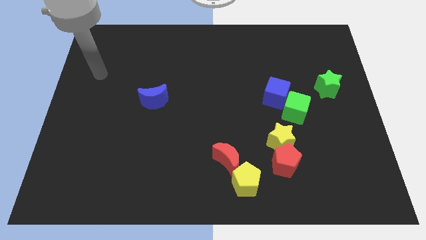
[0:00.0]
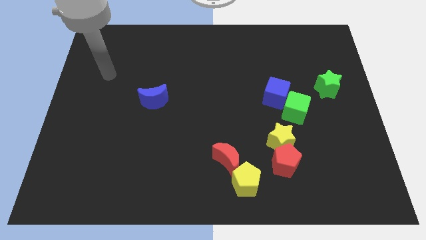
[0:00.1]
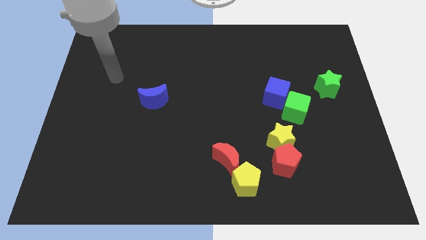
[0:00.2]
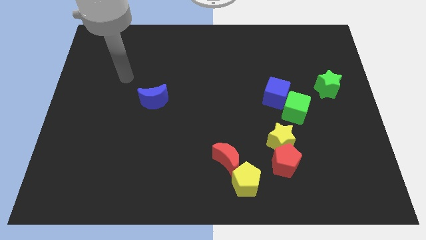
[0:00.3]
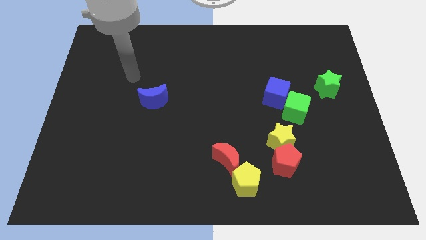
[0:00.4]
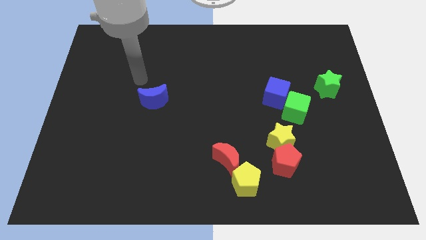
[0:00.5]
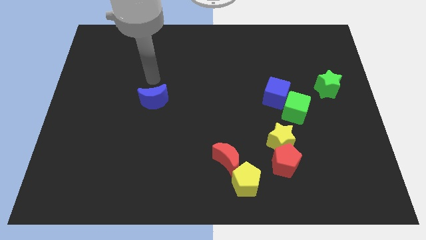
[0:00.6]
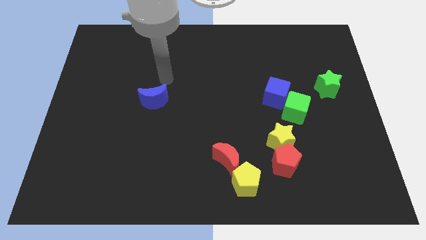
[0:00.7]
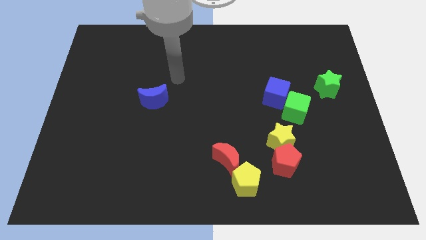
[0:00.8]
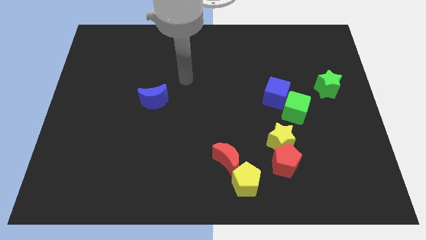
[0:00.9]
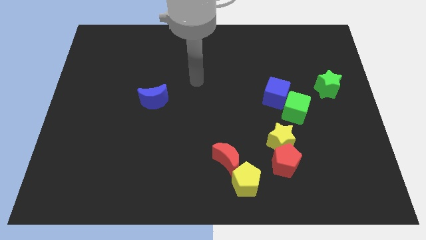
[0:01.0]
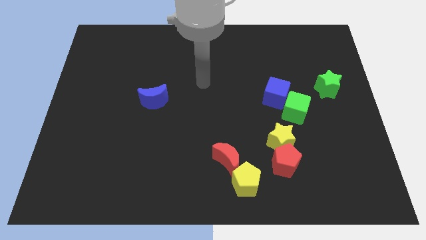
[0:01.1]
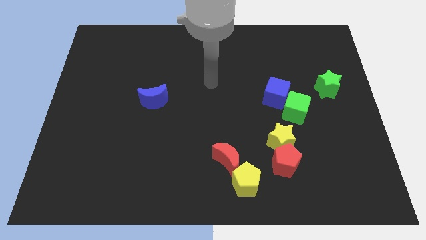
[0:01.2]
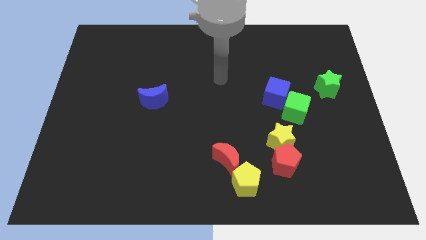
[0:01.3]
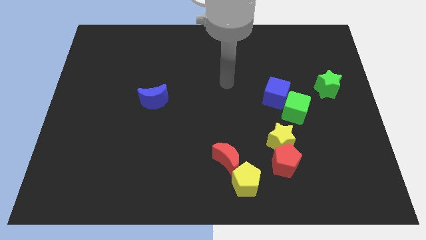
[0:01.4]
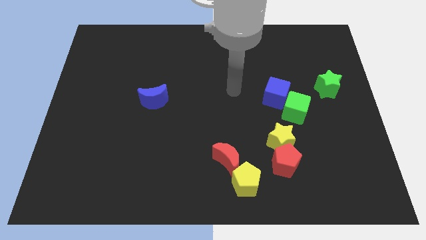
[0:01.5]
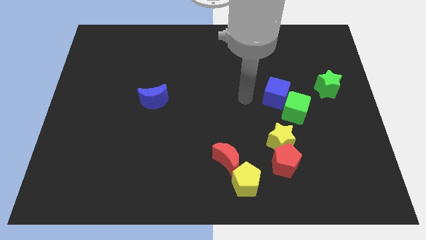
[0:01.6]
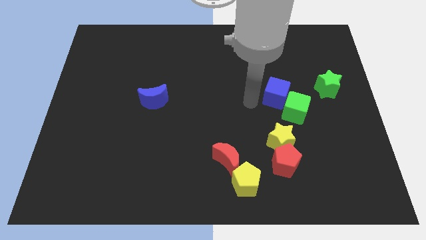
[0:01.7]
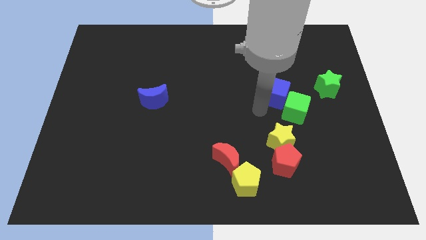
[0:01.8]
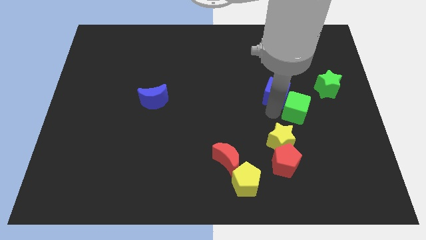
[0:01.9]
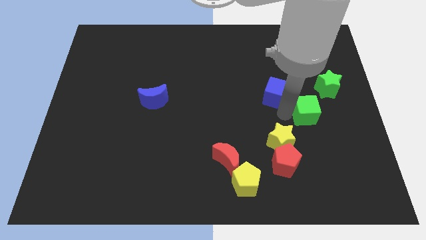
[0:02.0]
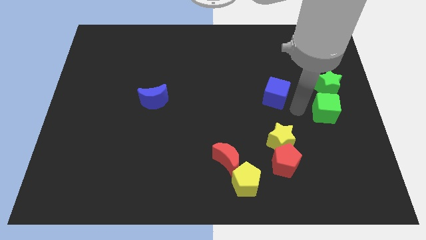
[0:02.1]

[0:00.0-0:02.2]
pull the blue cube apart from the green cube

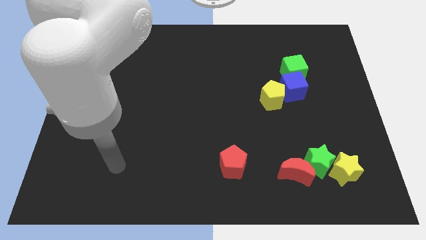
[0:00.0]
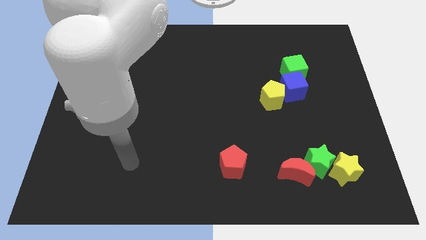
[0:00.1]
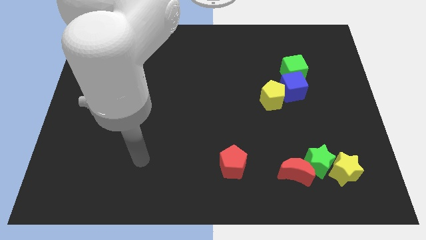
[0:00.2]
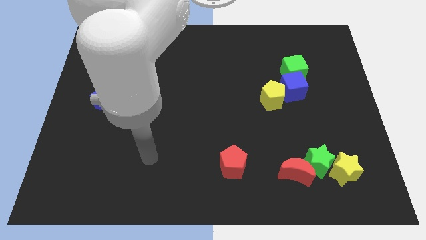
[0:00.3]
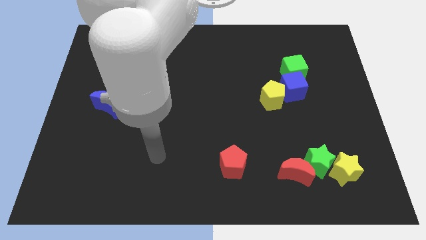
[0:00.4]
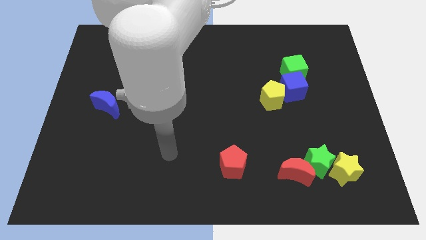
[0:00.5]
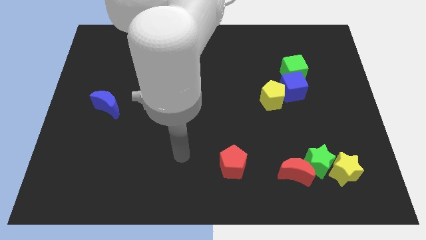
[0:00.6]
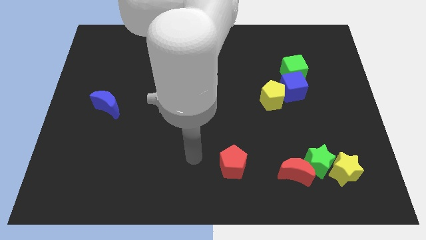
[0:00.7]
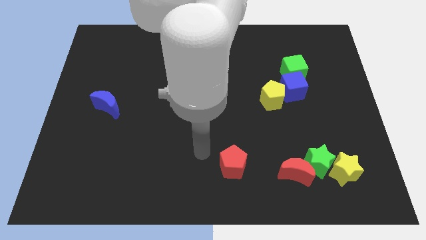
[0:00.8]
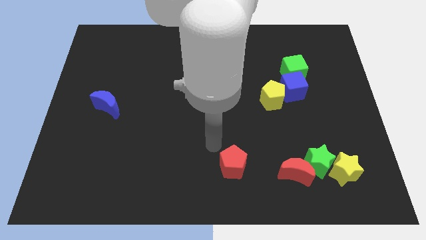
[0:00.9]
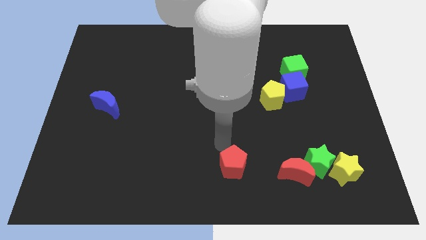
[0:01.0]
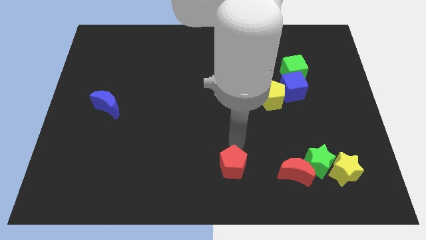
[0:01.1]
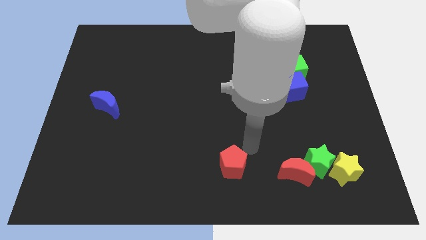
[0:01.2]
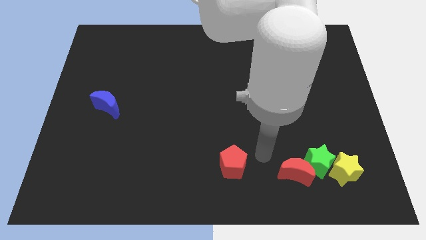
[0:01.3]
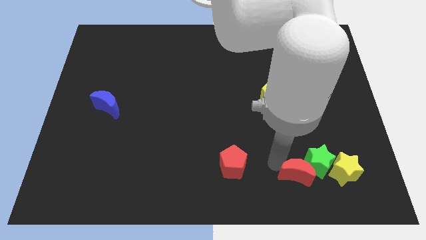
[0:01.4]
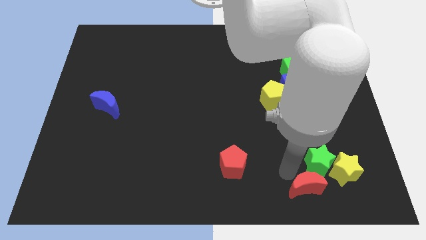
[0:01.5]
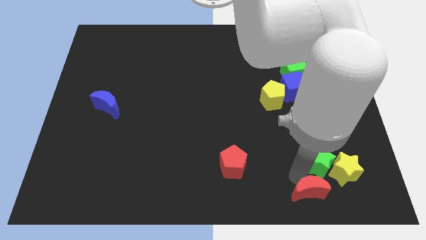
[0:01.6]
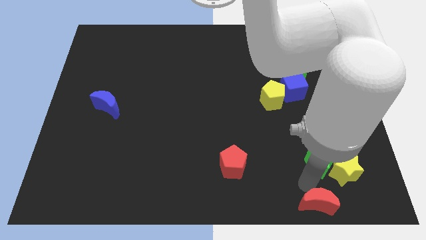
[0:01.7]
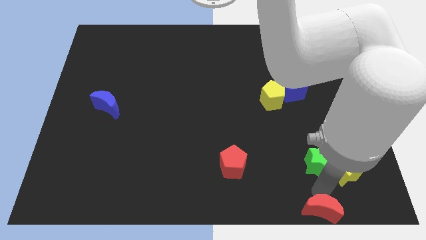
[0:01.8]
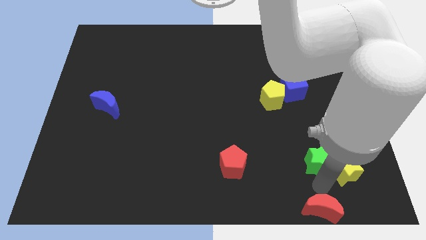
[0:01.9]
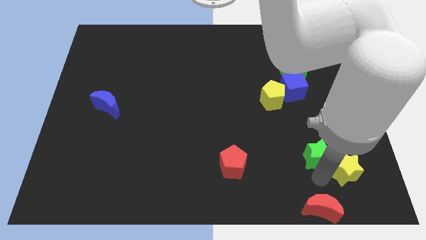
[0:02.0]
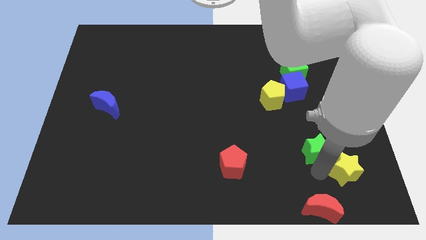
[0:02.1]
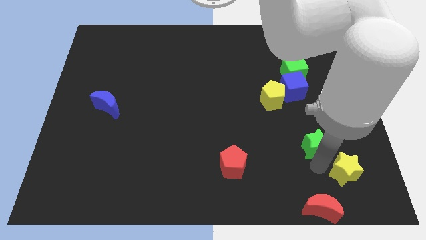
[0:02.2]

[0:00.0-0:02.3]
pull the green star apart from the yellow star and red moon

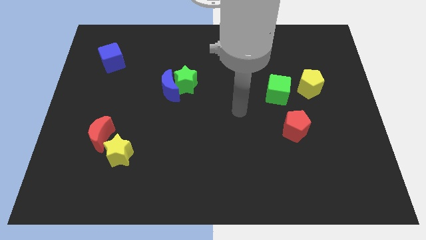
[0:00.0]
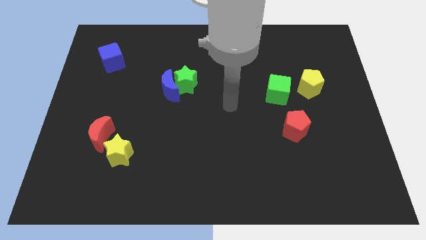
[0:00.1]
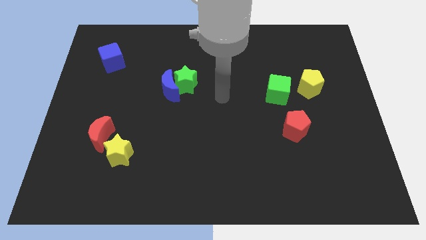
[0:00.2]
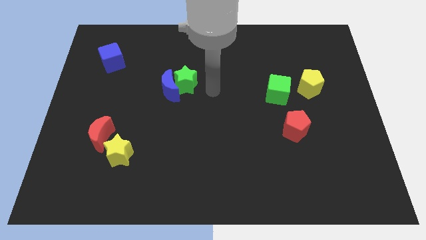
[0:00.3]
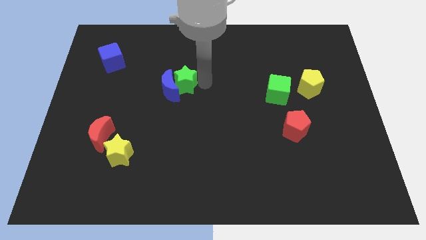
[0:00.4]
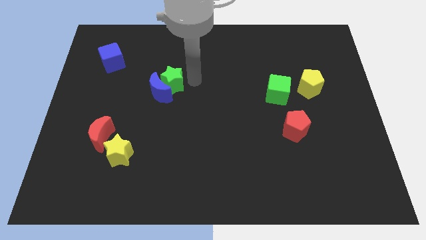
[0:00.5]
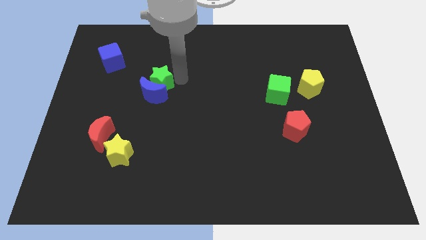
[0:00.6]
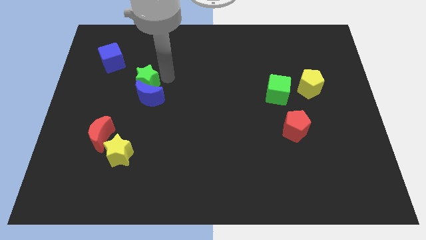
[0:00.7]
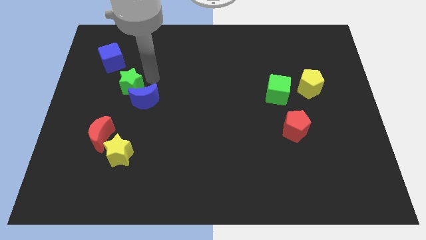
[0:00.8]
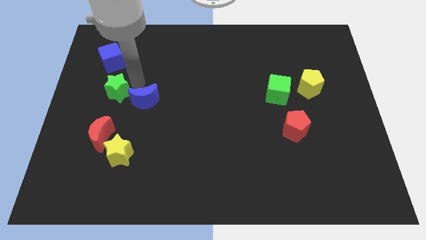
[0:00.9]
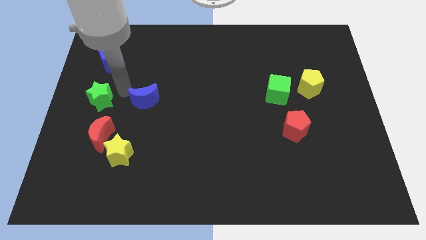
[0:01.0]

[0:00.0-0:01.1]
pull the blue moon apart from the green star

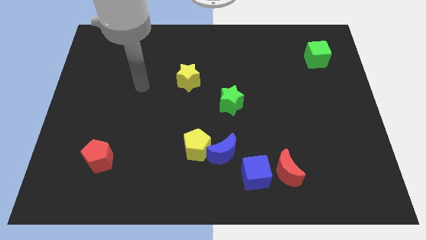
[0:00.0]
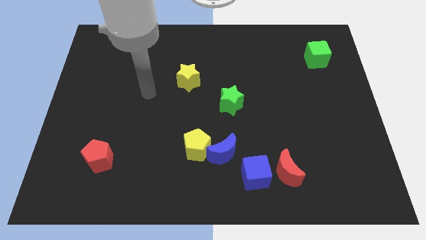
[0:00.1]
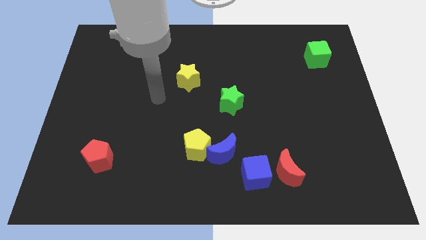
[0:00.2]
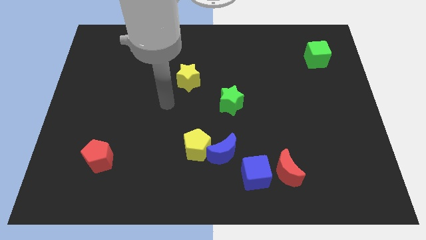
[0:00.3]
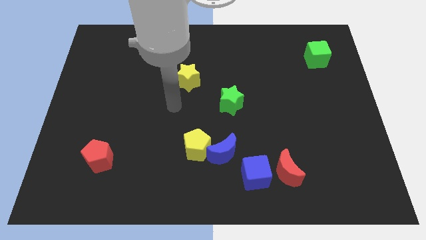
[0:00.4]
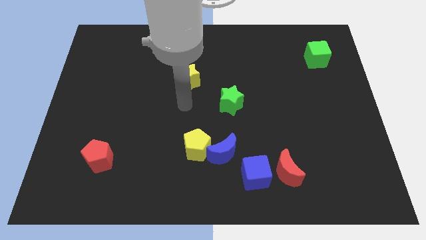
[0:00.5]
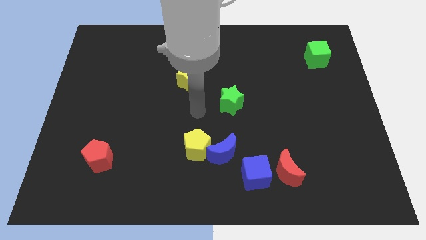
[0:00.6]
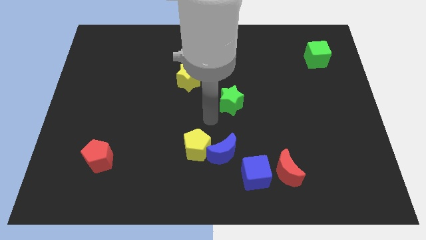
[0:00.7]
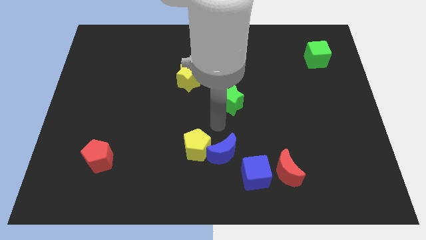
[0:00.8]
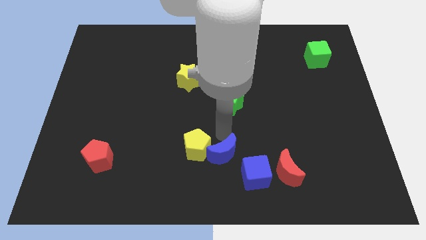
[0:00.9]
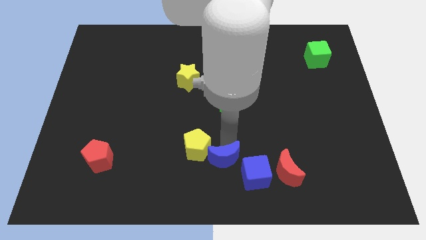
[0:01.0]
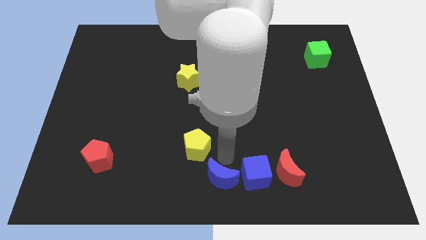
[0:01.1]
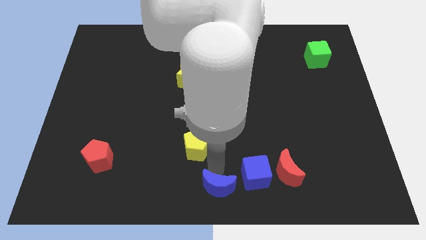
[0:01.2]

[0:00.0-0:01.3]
move the yellow pentagon away from the blue moon

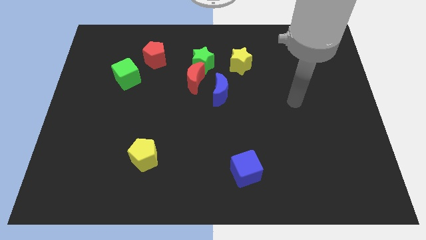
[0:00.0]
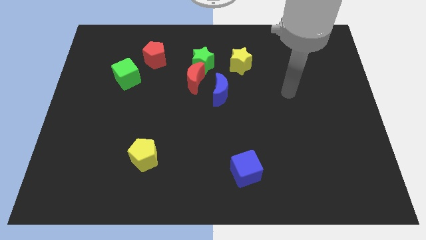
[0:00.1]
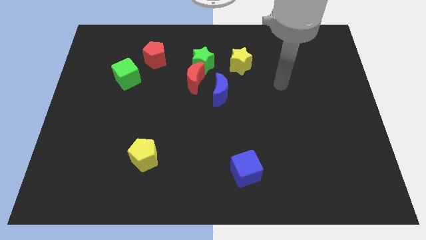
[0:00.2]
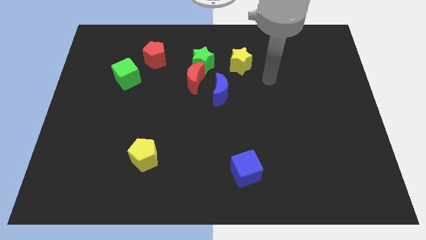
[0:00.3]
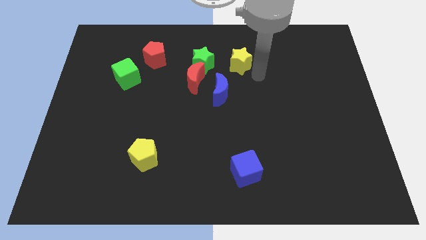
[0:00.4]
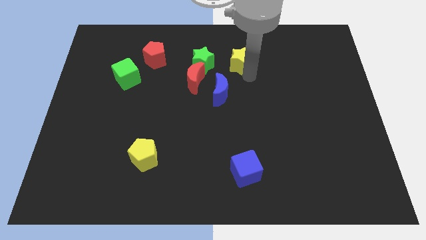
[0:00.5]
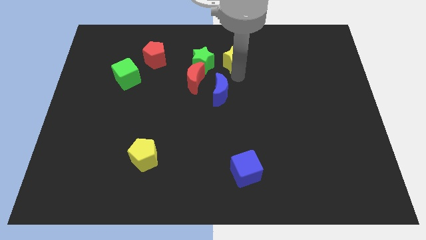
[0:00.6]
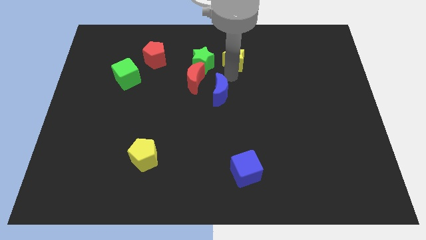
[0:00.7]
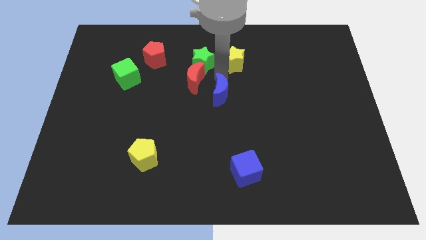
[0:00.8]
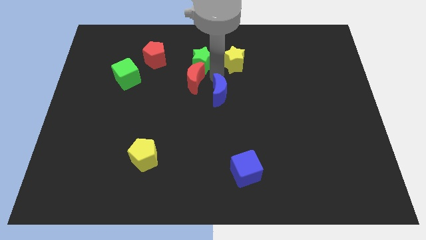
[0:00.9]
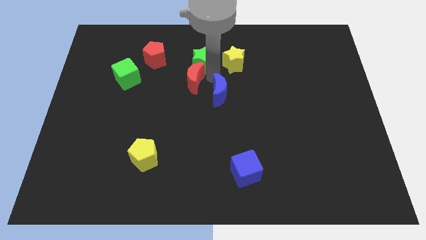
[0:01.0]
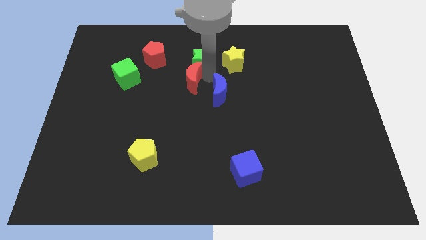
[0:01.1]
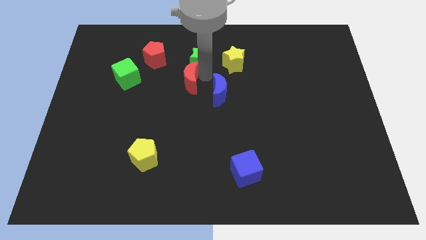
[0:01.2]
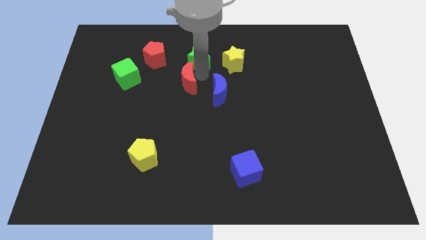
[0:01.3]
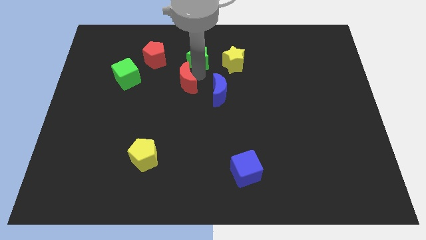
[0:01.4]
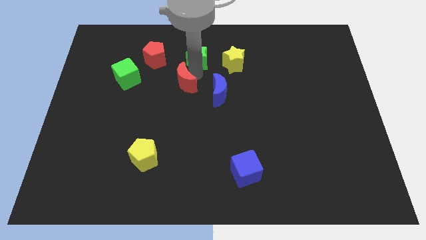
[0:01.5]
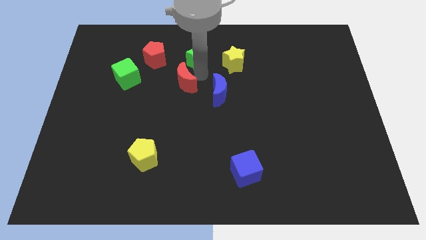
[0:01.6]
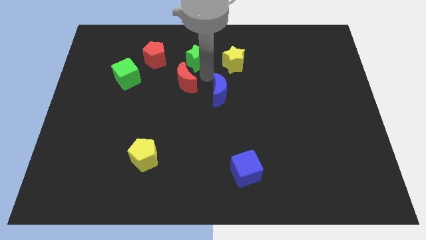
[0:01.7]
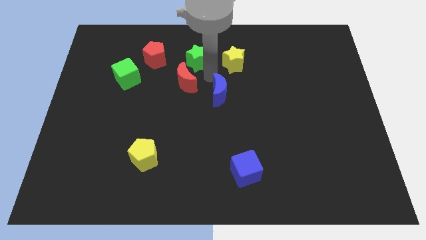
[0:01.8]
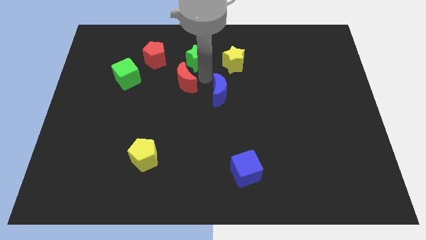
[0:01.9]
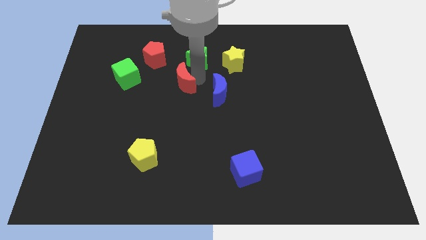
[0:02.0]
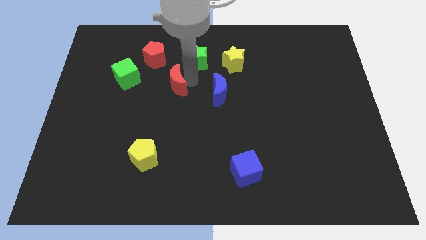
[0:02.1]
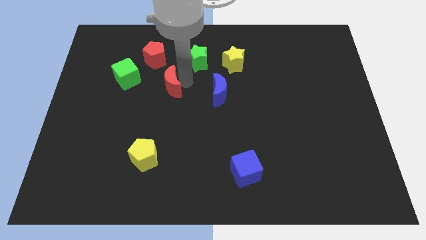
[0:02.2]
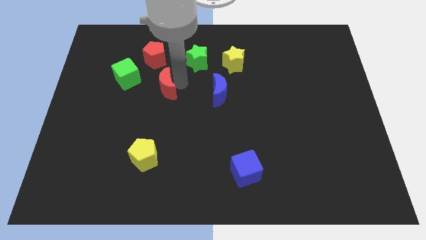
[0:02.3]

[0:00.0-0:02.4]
separate the red moon from the green star and blue moon

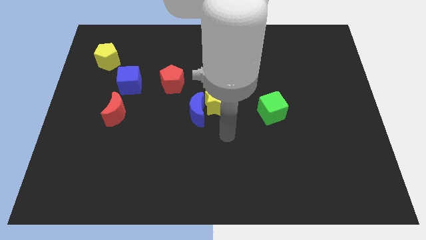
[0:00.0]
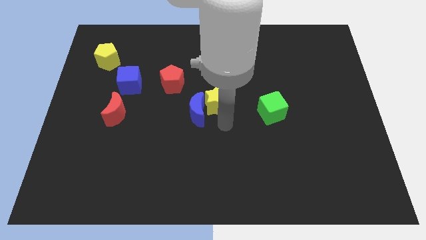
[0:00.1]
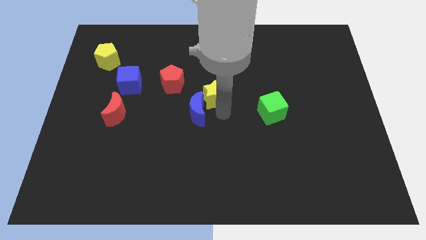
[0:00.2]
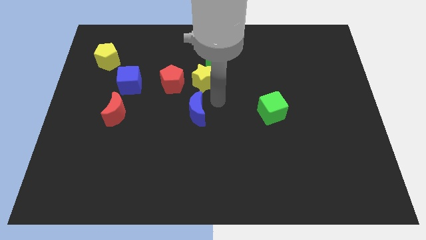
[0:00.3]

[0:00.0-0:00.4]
pull the blue moon apart from the yellow star
